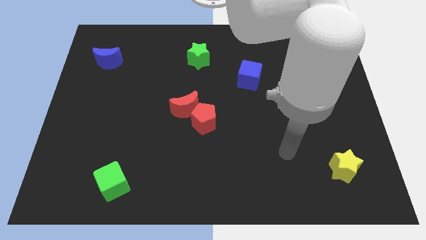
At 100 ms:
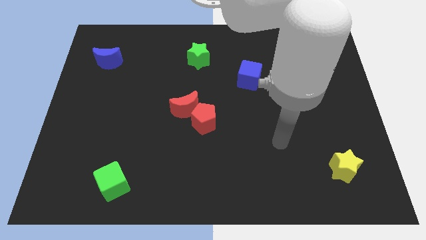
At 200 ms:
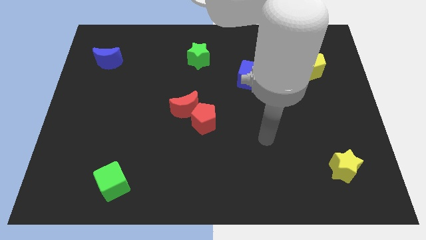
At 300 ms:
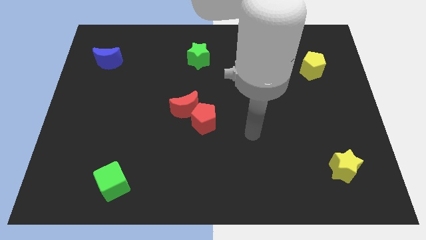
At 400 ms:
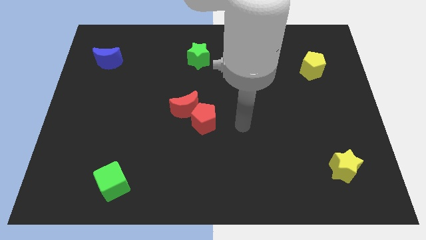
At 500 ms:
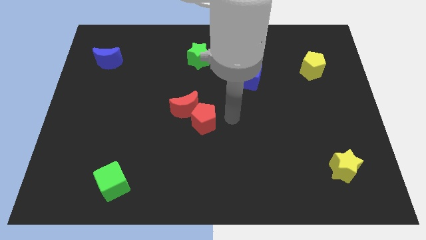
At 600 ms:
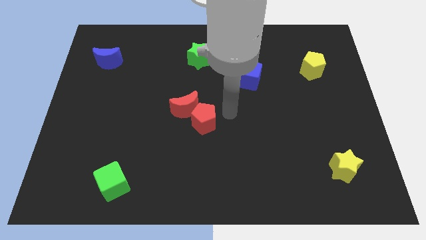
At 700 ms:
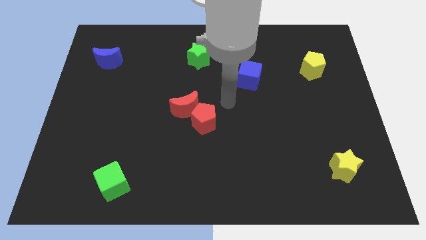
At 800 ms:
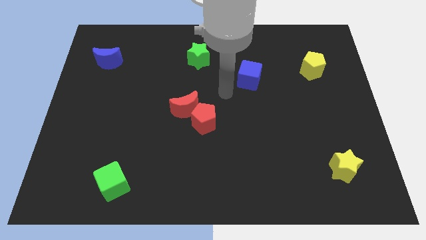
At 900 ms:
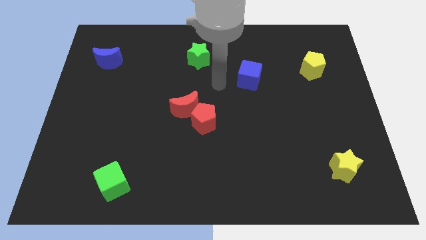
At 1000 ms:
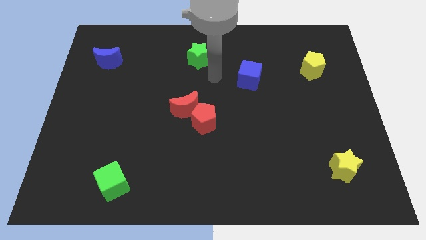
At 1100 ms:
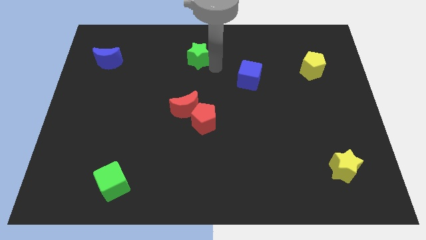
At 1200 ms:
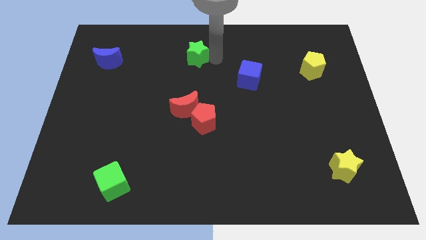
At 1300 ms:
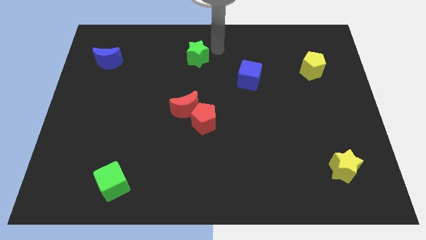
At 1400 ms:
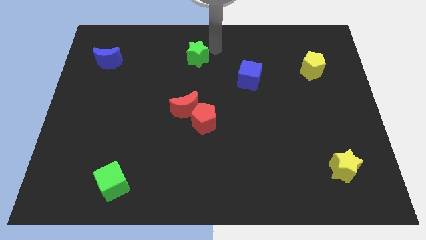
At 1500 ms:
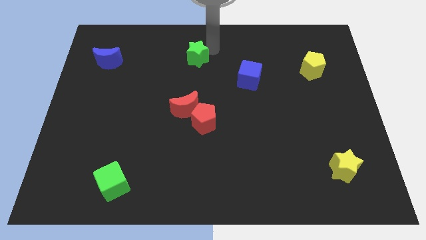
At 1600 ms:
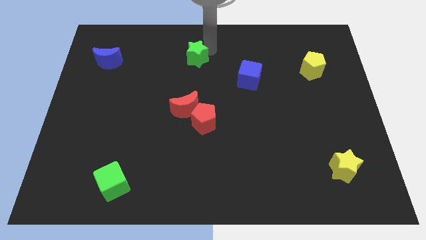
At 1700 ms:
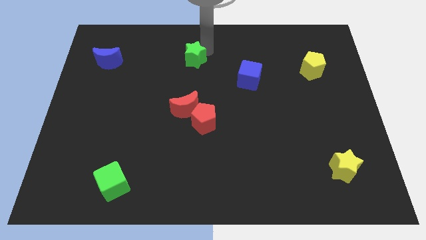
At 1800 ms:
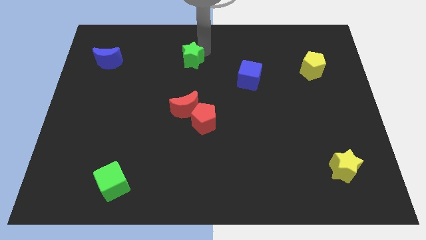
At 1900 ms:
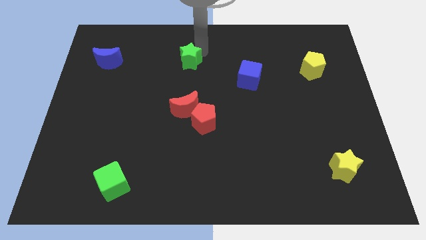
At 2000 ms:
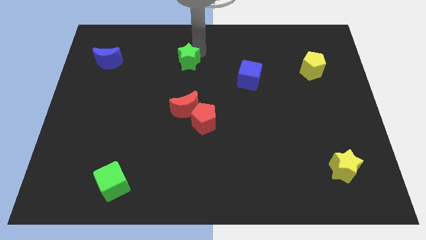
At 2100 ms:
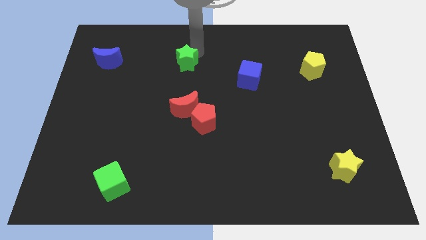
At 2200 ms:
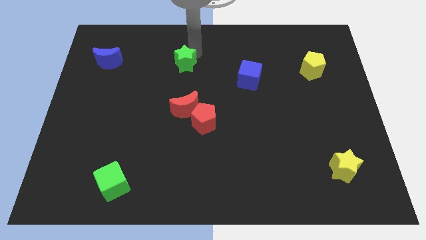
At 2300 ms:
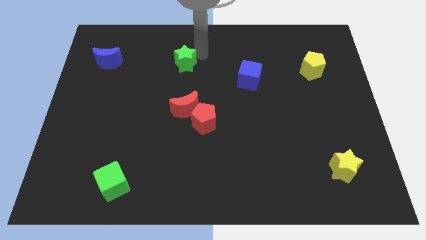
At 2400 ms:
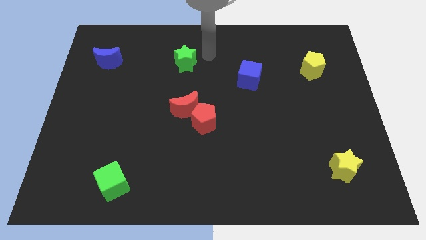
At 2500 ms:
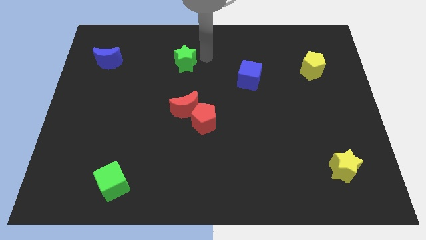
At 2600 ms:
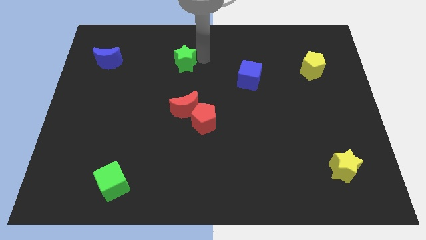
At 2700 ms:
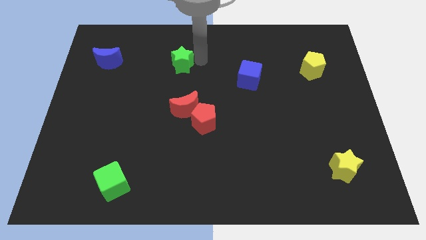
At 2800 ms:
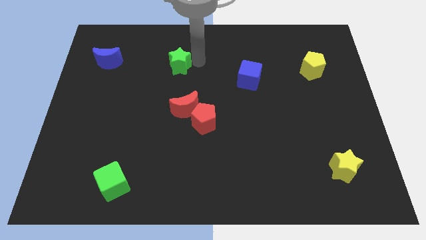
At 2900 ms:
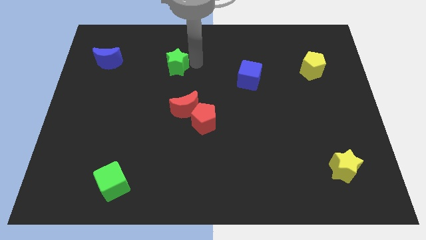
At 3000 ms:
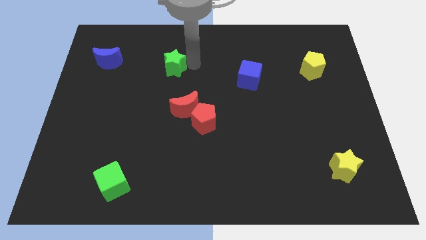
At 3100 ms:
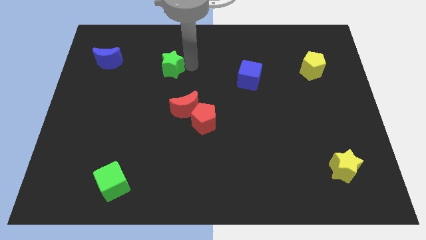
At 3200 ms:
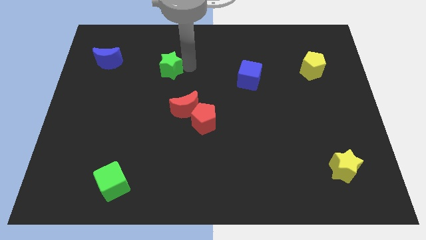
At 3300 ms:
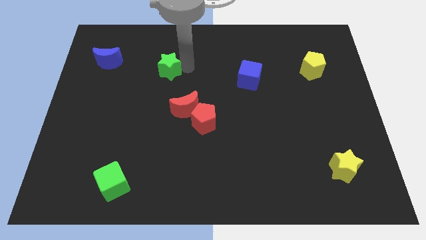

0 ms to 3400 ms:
slide the green star slightly left

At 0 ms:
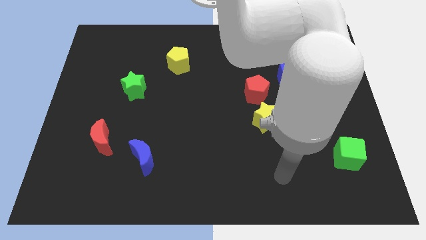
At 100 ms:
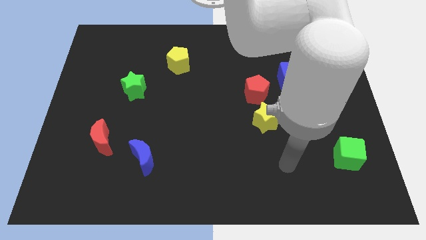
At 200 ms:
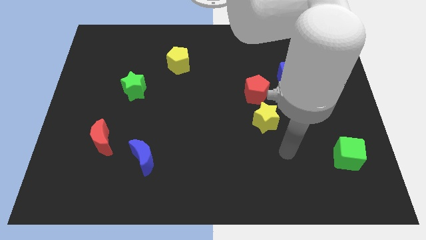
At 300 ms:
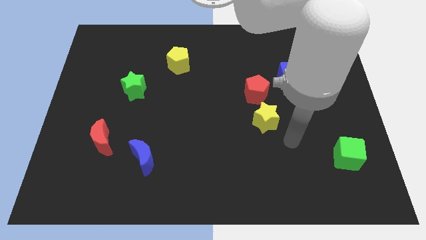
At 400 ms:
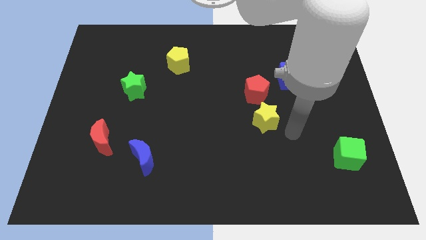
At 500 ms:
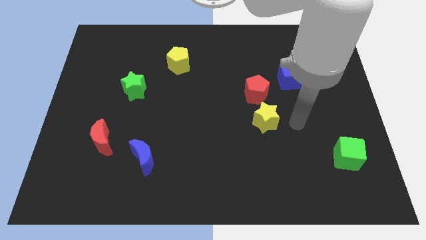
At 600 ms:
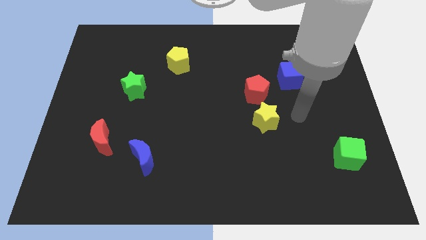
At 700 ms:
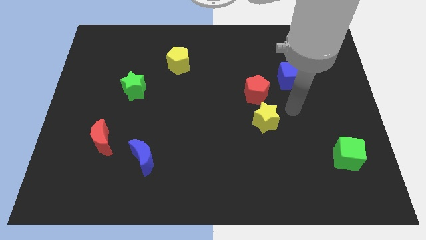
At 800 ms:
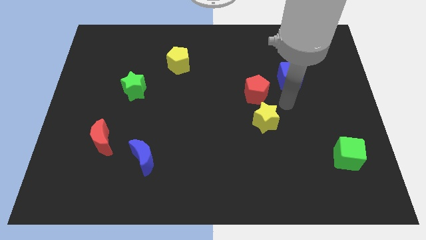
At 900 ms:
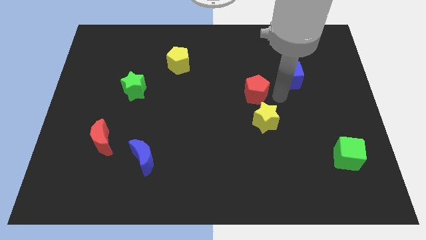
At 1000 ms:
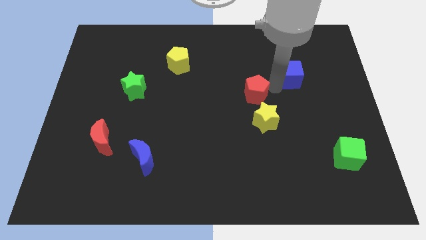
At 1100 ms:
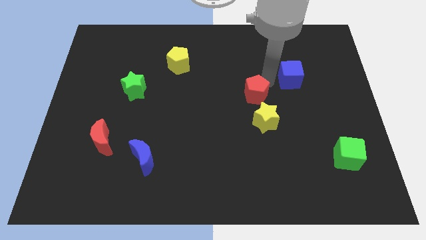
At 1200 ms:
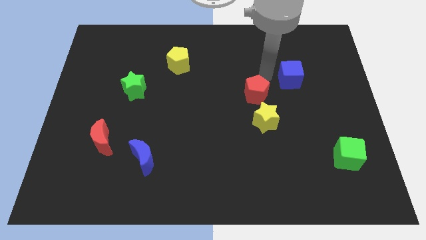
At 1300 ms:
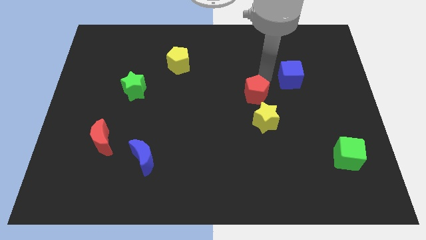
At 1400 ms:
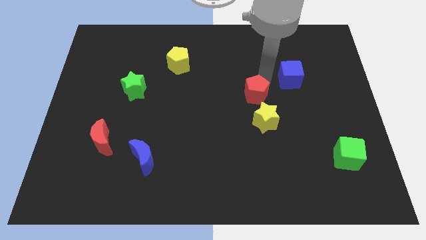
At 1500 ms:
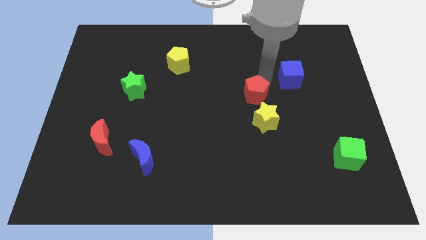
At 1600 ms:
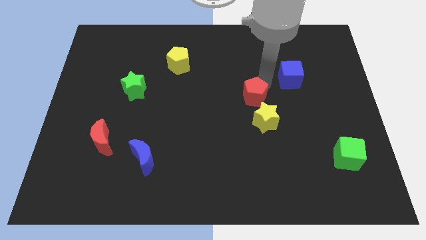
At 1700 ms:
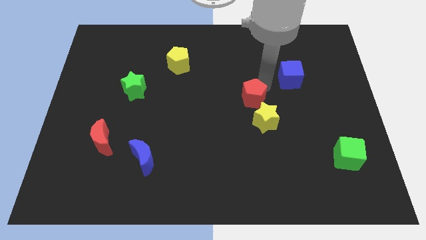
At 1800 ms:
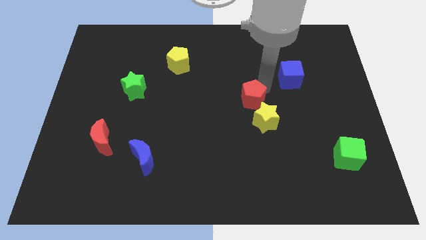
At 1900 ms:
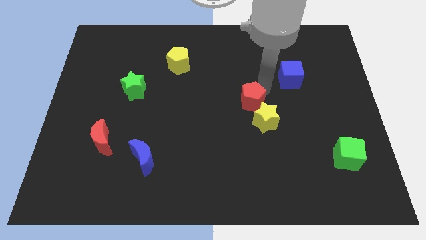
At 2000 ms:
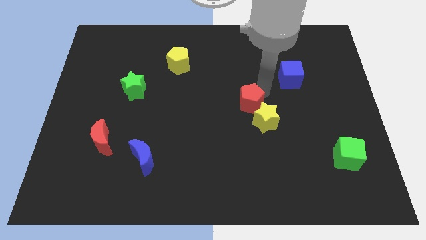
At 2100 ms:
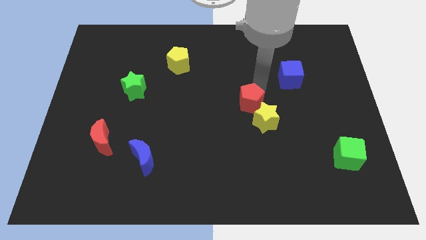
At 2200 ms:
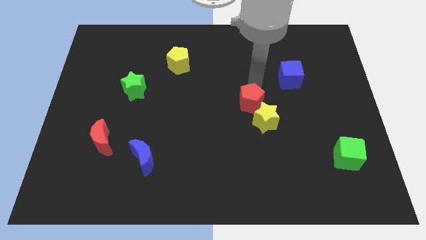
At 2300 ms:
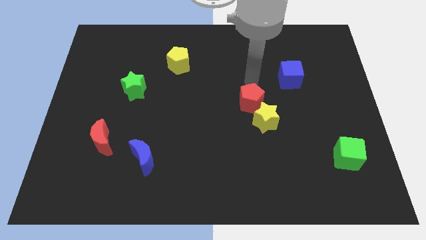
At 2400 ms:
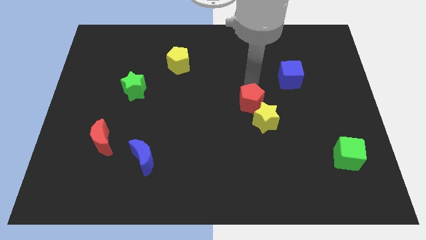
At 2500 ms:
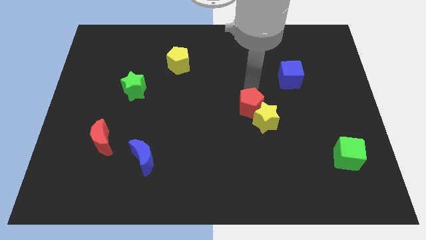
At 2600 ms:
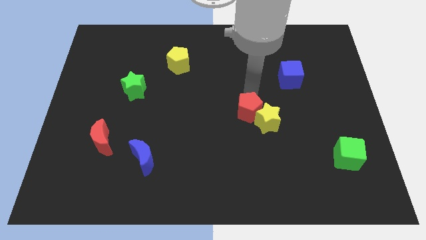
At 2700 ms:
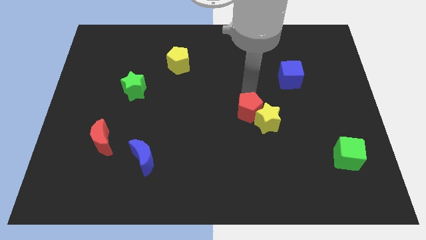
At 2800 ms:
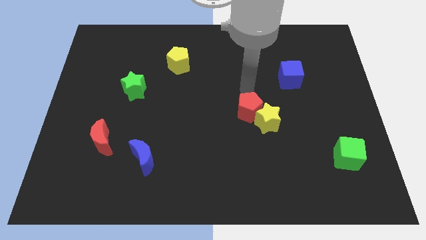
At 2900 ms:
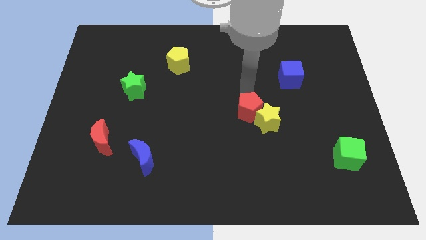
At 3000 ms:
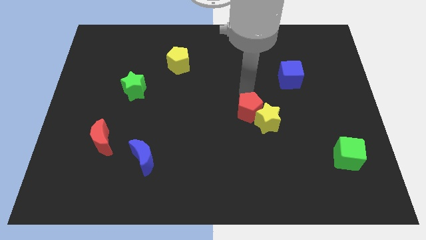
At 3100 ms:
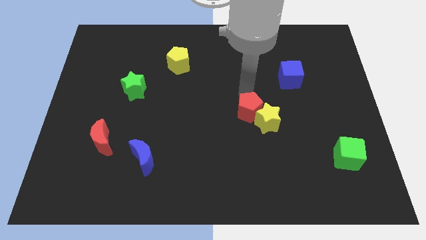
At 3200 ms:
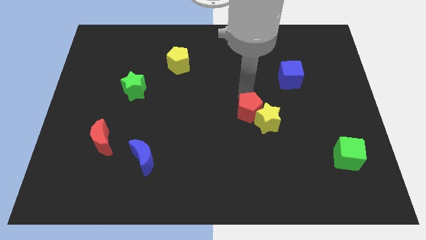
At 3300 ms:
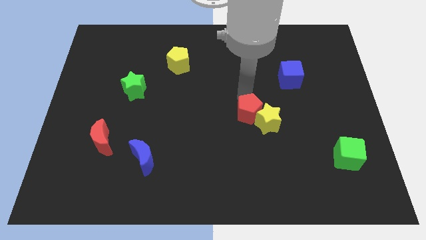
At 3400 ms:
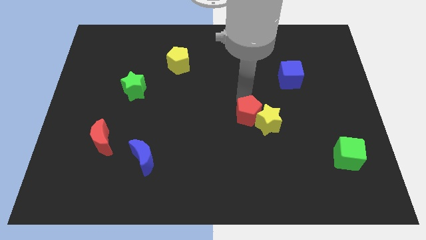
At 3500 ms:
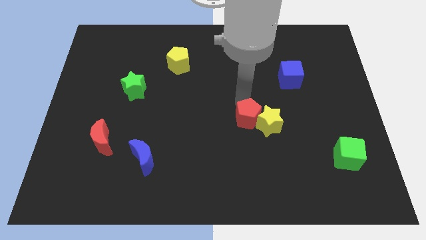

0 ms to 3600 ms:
slightly slide the red pentagon down

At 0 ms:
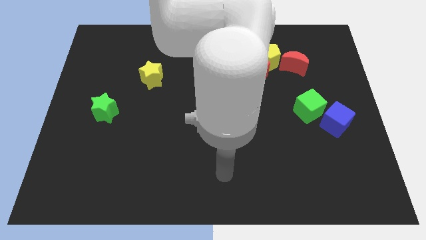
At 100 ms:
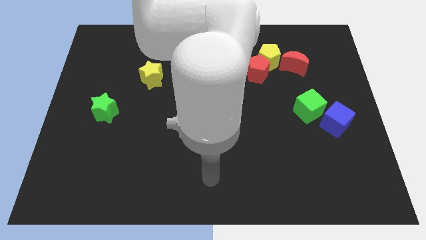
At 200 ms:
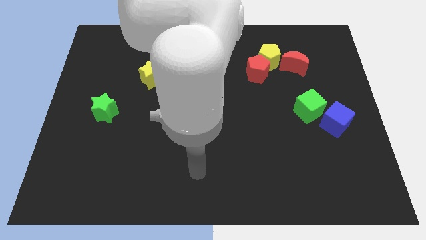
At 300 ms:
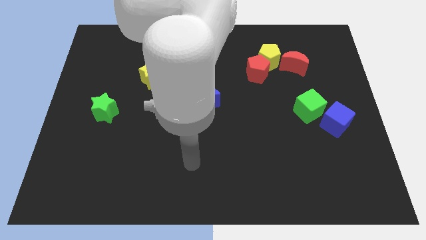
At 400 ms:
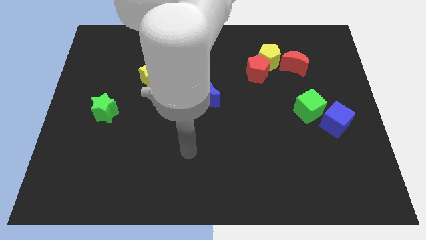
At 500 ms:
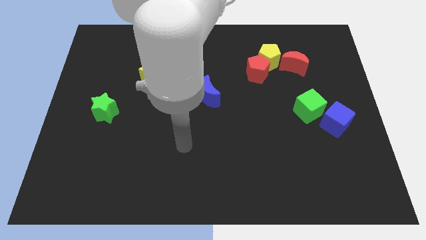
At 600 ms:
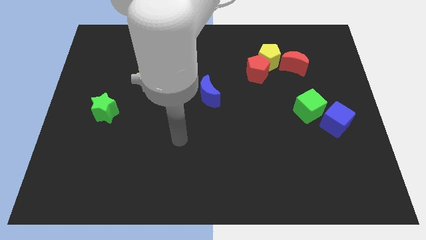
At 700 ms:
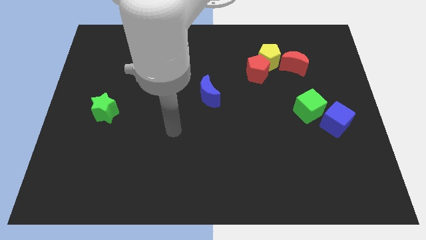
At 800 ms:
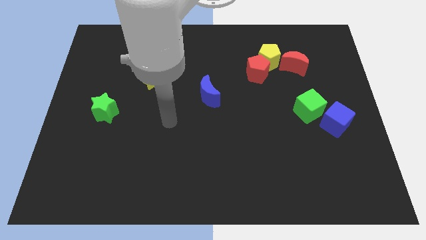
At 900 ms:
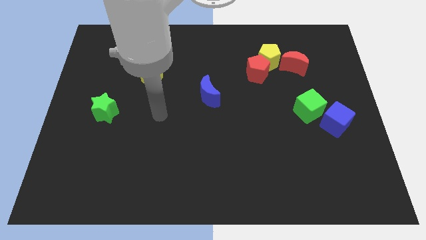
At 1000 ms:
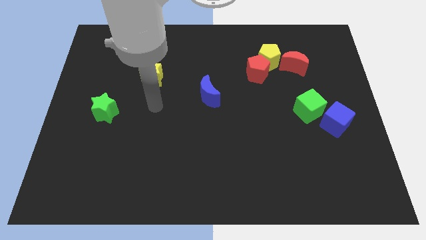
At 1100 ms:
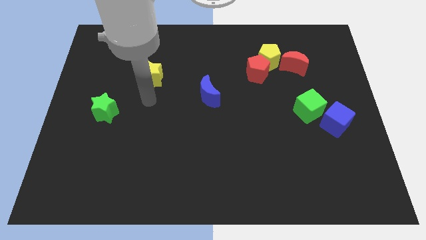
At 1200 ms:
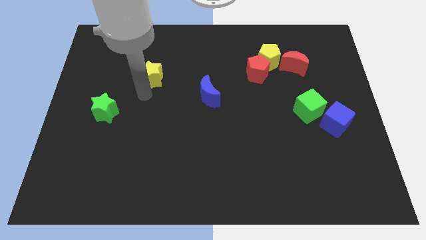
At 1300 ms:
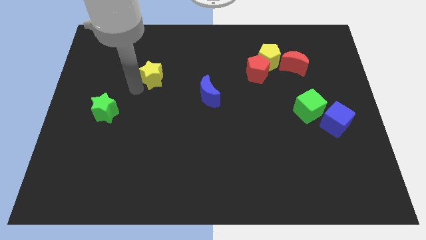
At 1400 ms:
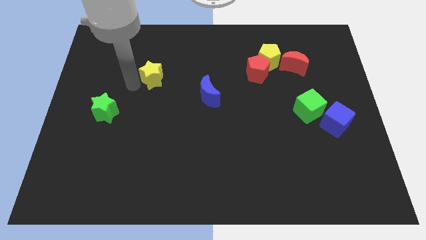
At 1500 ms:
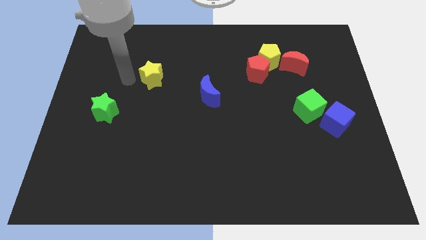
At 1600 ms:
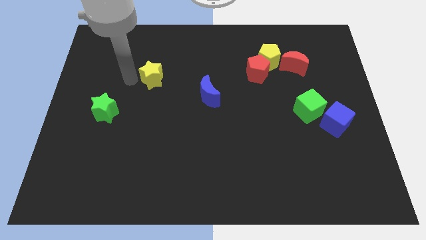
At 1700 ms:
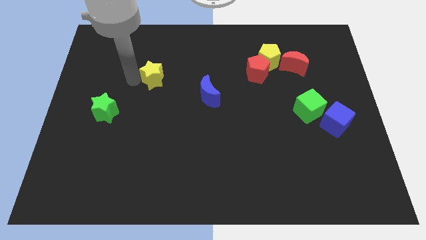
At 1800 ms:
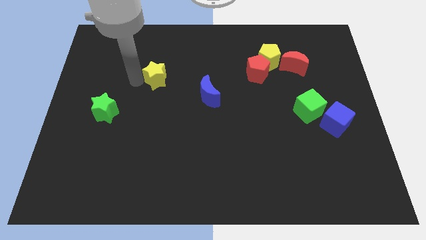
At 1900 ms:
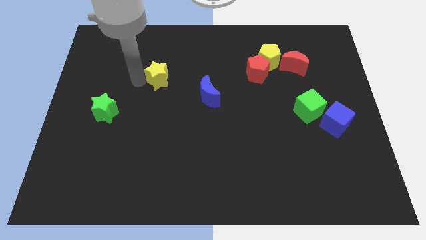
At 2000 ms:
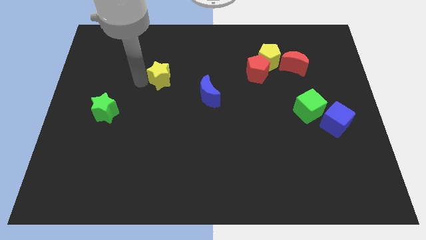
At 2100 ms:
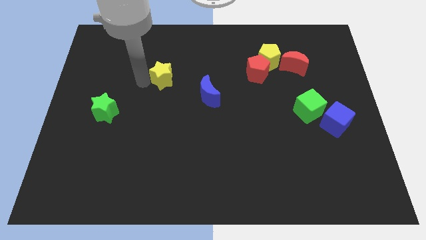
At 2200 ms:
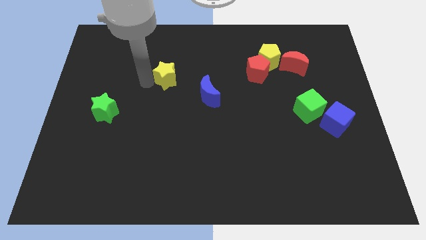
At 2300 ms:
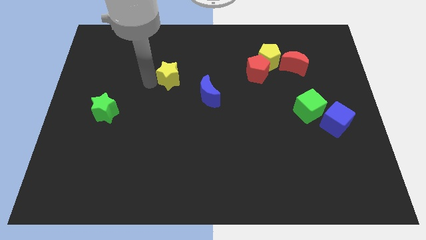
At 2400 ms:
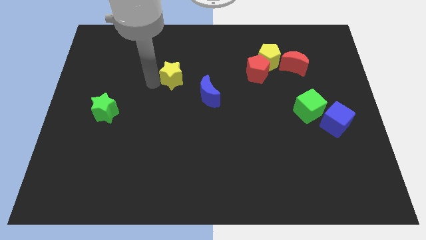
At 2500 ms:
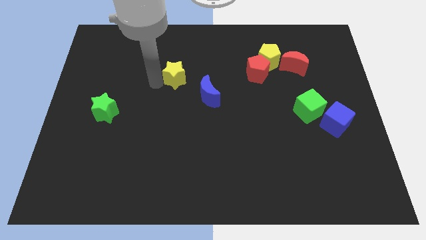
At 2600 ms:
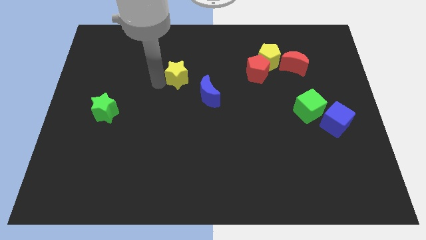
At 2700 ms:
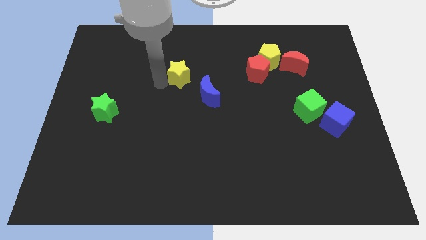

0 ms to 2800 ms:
slightly move the yellow star right
